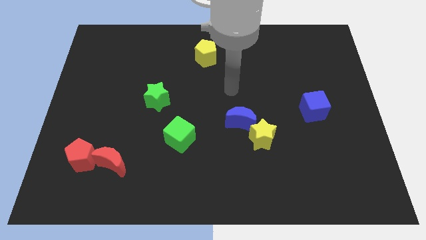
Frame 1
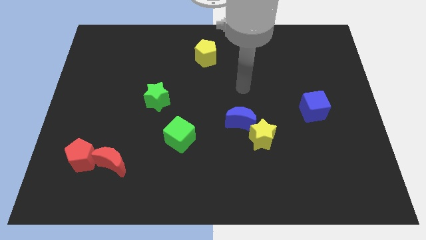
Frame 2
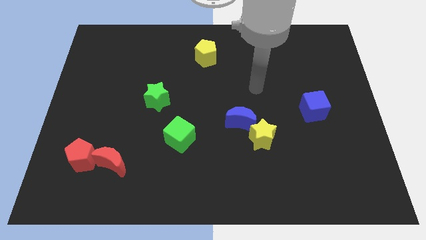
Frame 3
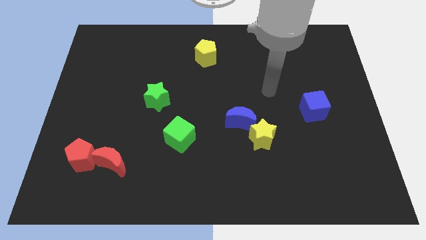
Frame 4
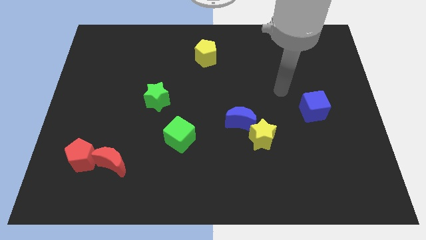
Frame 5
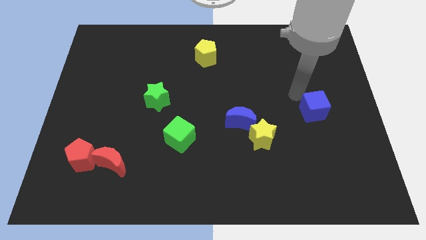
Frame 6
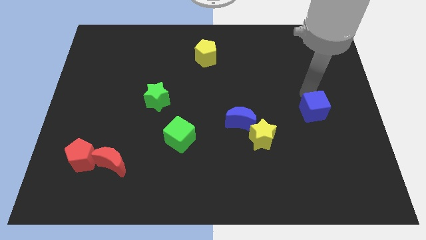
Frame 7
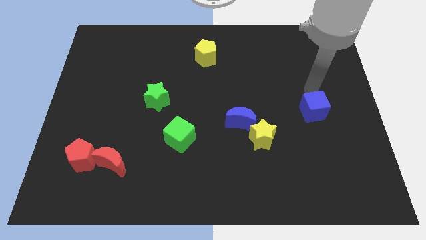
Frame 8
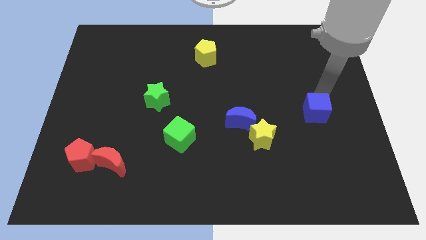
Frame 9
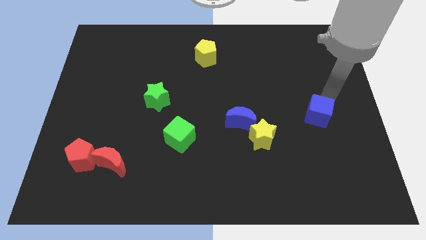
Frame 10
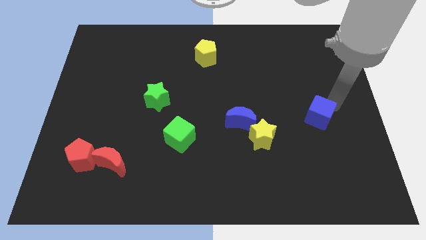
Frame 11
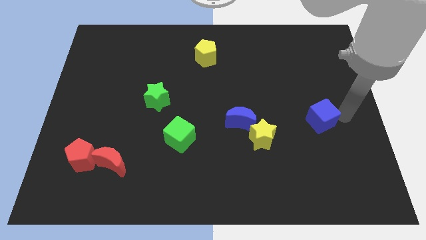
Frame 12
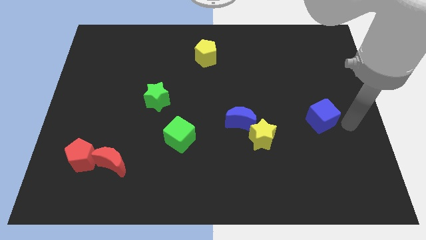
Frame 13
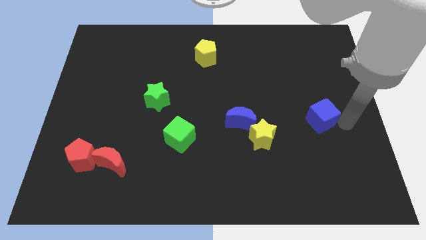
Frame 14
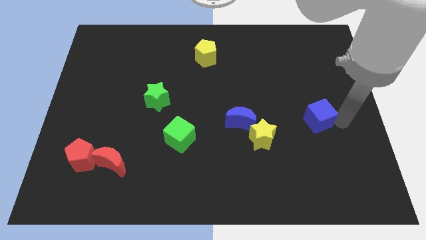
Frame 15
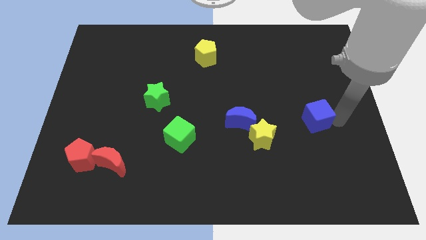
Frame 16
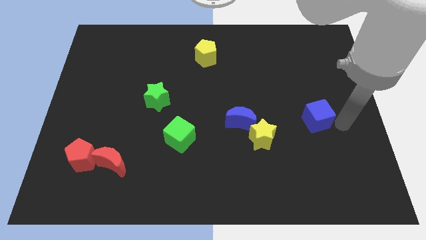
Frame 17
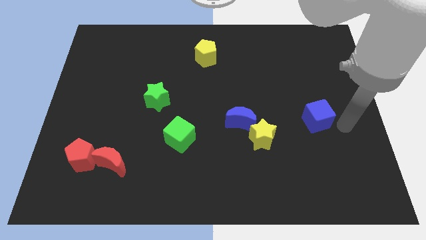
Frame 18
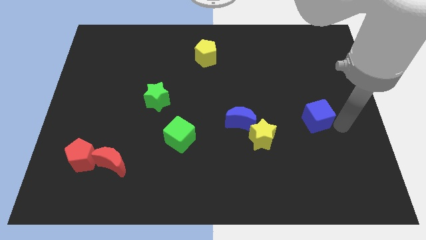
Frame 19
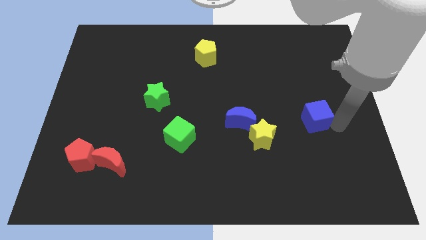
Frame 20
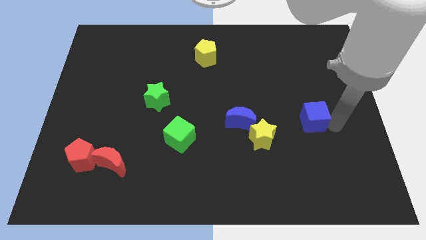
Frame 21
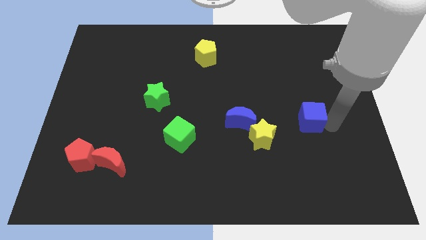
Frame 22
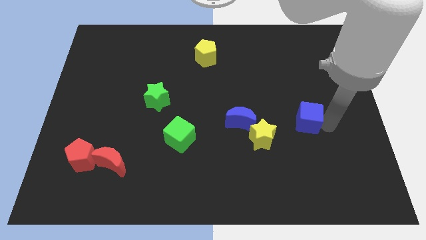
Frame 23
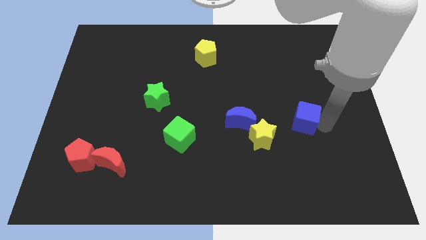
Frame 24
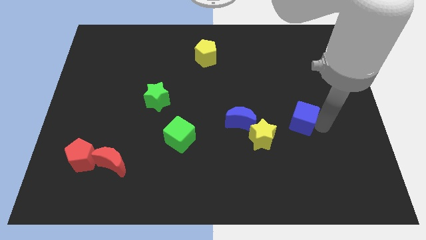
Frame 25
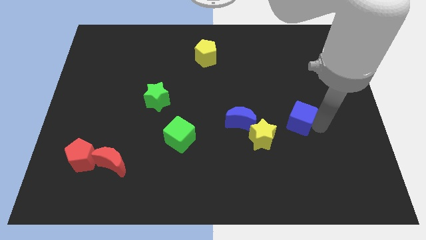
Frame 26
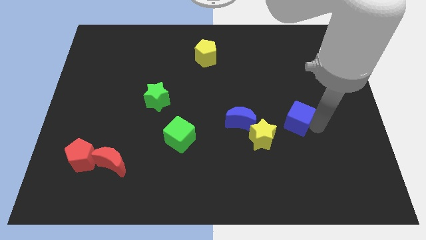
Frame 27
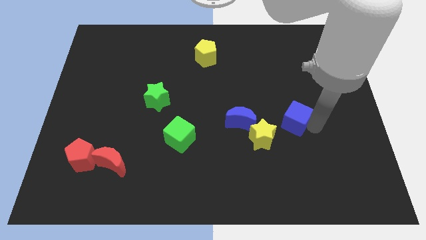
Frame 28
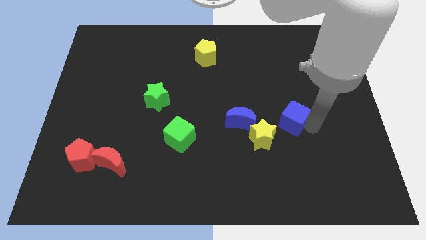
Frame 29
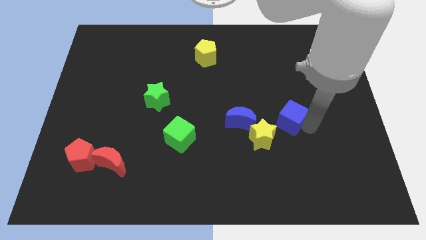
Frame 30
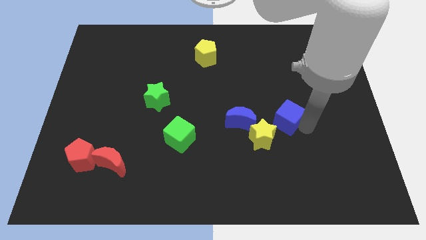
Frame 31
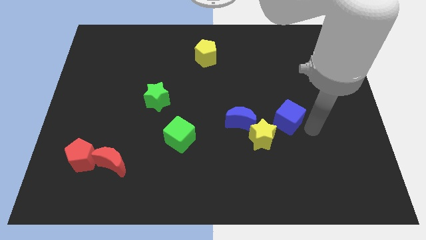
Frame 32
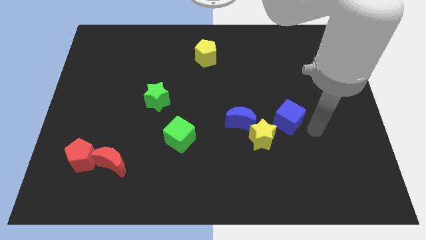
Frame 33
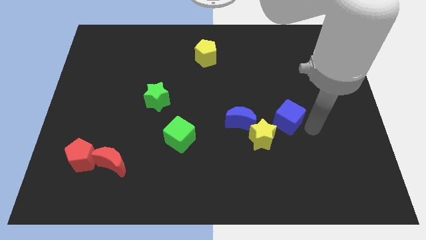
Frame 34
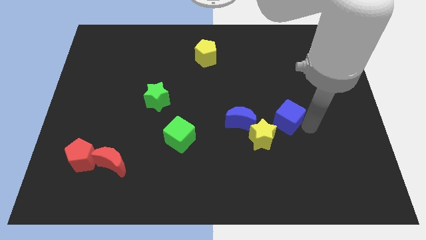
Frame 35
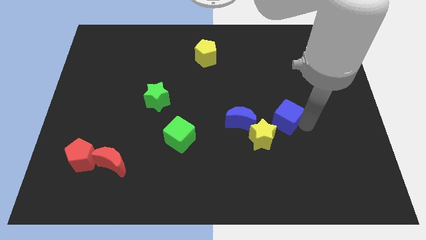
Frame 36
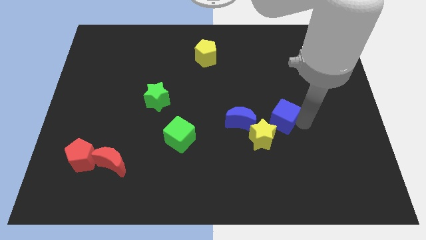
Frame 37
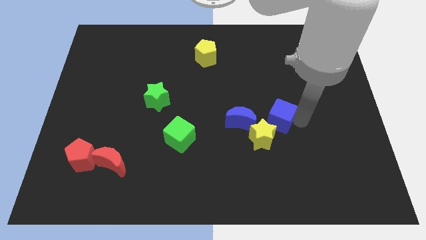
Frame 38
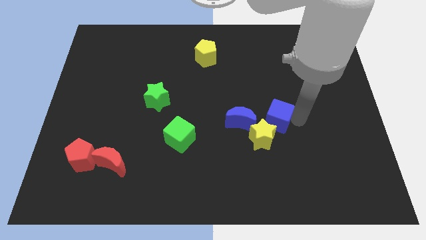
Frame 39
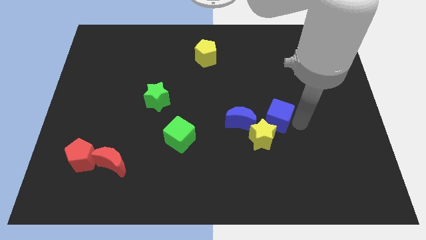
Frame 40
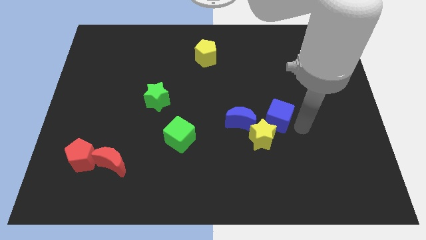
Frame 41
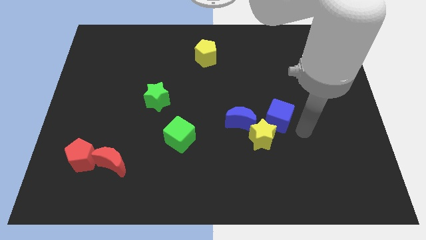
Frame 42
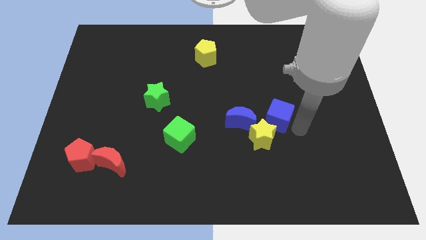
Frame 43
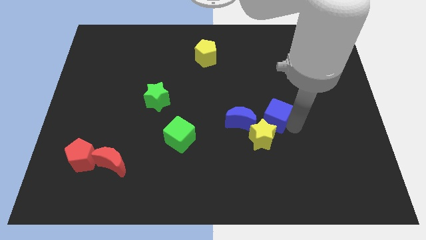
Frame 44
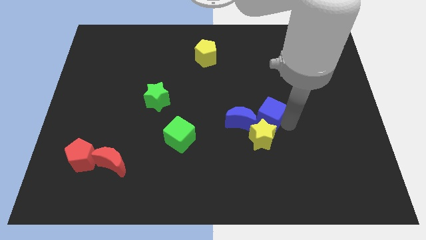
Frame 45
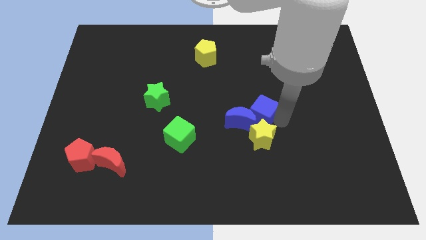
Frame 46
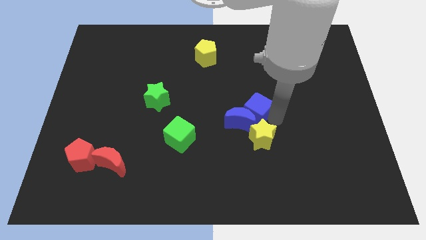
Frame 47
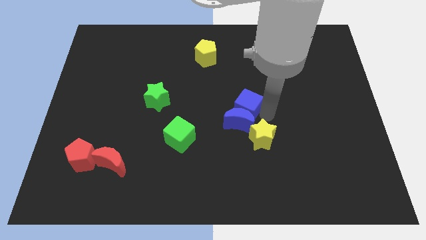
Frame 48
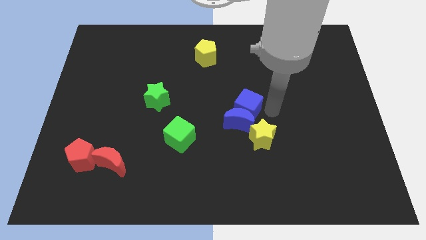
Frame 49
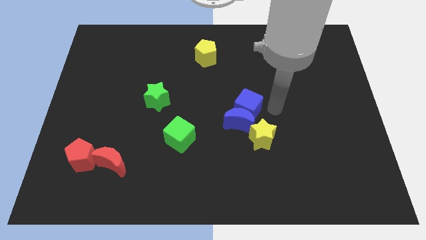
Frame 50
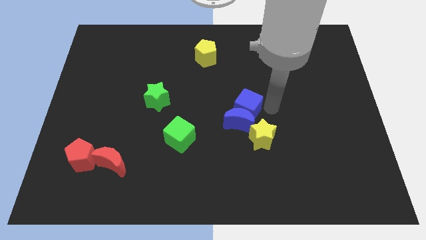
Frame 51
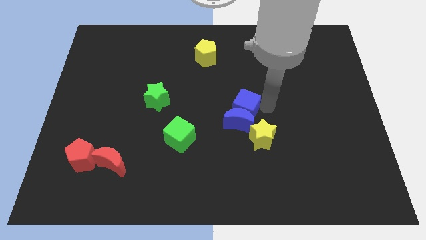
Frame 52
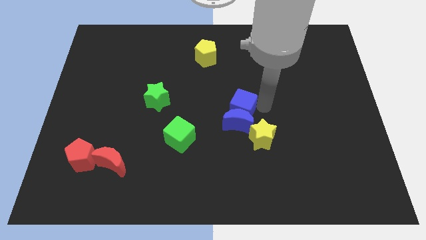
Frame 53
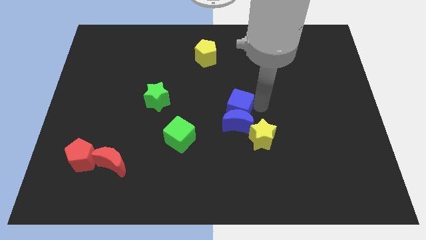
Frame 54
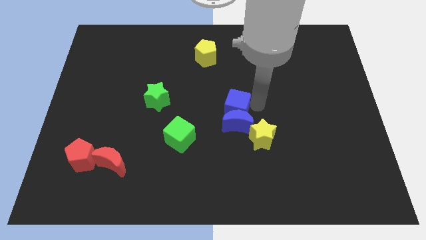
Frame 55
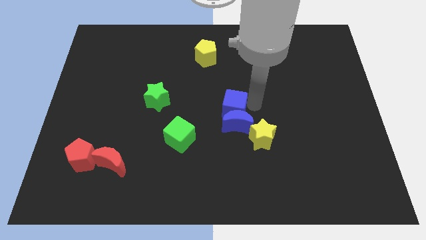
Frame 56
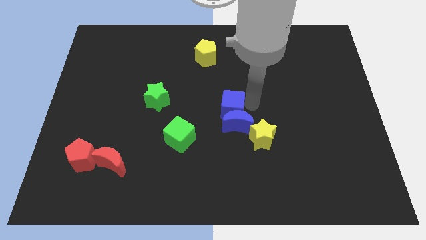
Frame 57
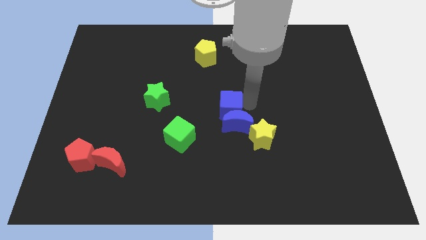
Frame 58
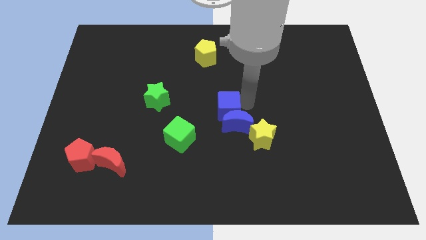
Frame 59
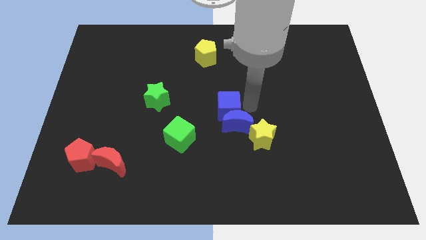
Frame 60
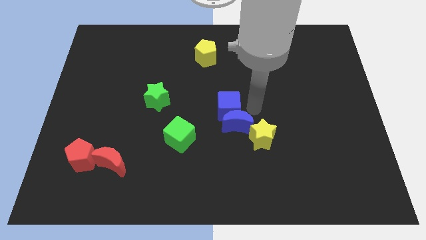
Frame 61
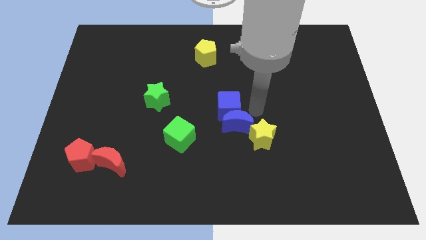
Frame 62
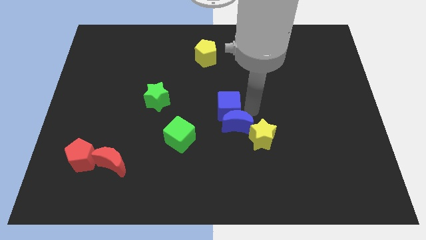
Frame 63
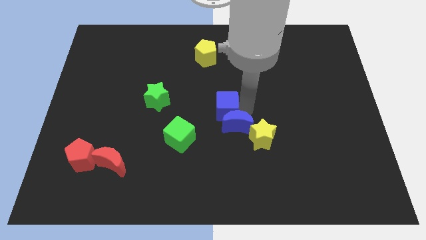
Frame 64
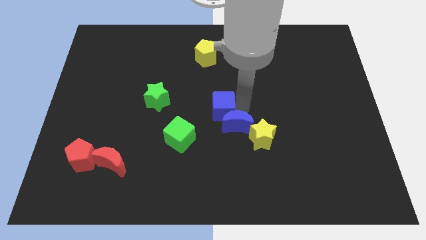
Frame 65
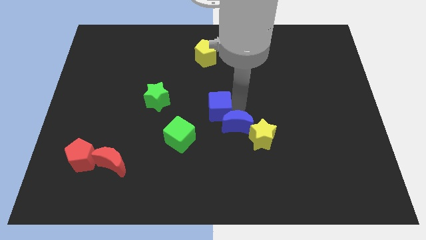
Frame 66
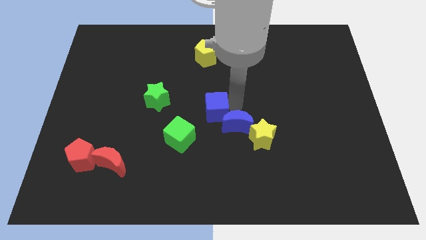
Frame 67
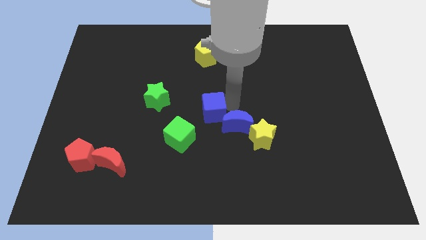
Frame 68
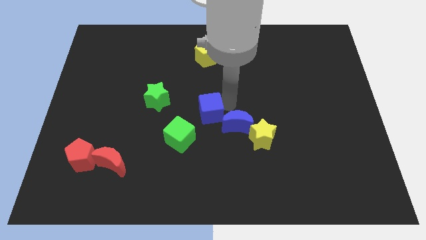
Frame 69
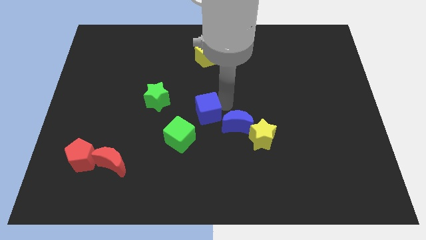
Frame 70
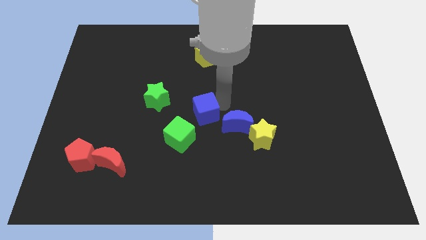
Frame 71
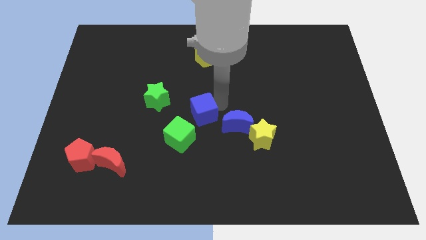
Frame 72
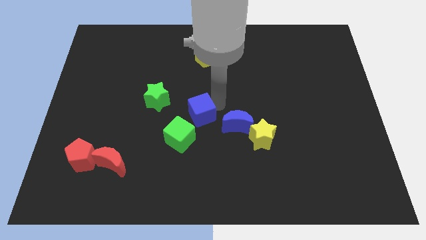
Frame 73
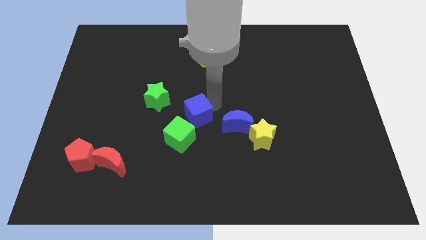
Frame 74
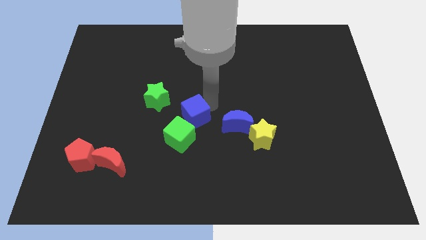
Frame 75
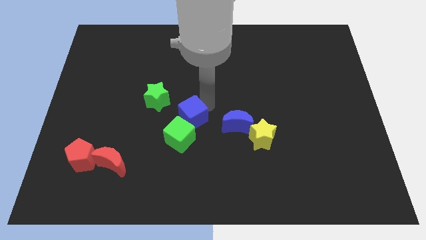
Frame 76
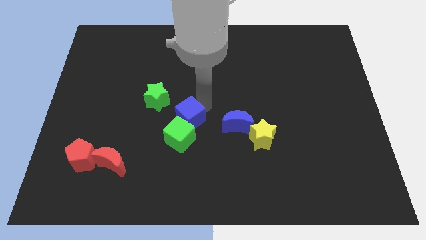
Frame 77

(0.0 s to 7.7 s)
move the blue cube next to the green cube
